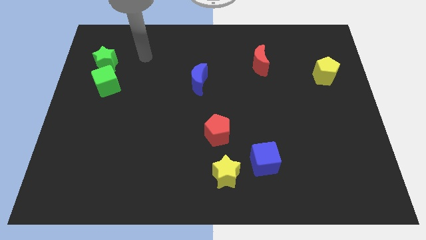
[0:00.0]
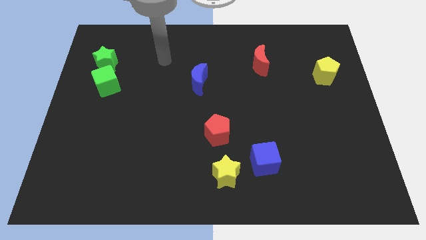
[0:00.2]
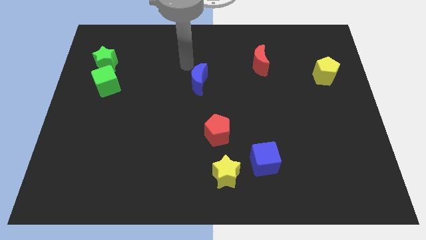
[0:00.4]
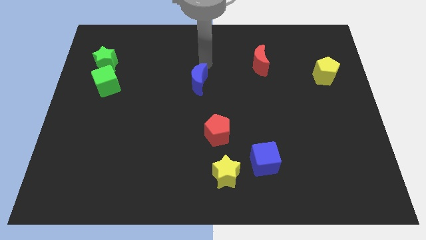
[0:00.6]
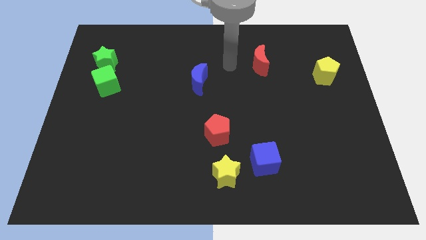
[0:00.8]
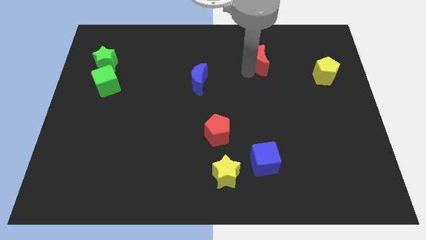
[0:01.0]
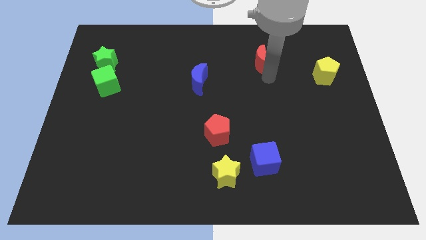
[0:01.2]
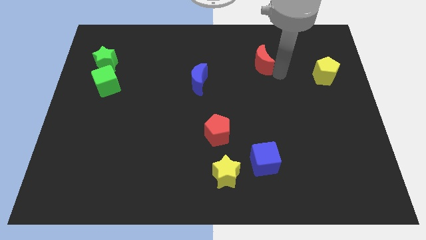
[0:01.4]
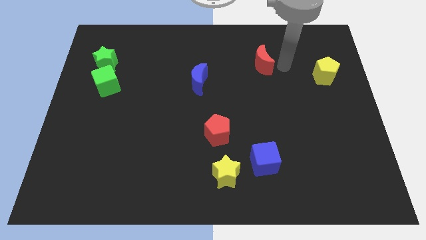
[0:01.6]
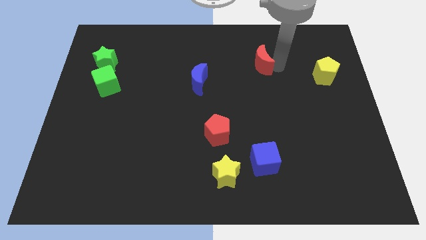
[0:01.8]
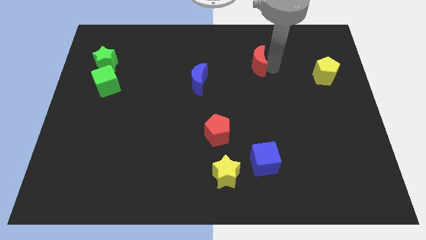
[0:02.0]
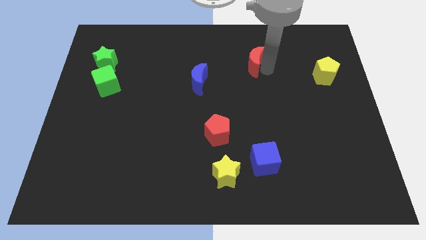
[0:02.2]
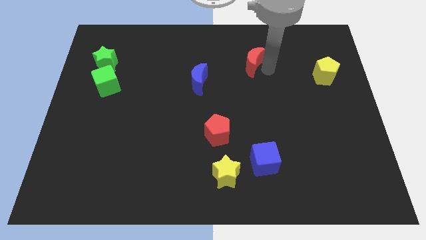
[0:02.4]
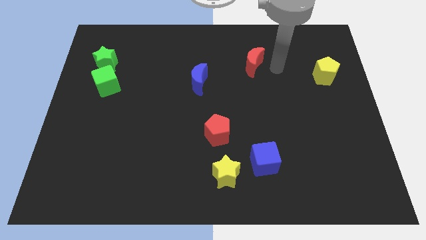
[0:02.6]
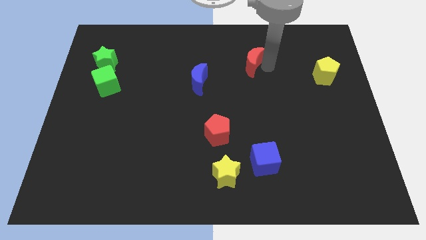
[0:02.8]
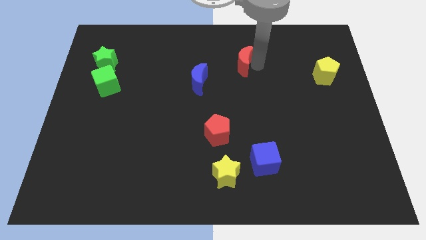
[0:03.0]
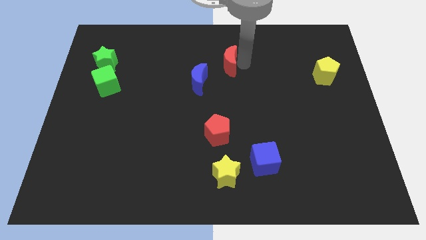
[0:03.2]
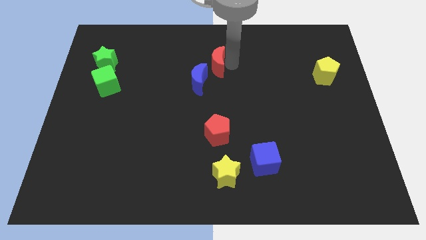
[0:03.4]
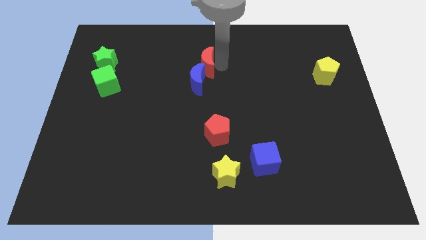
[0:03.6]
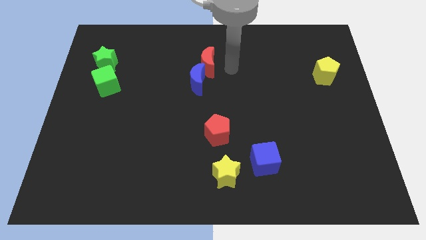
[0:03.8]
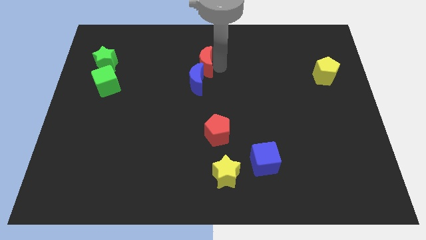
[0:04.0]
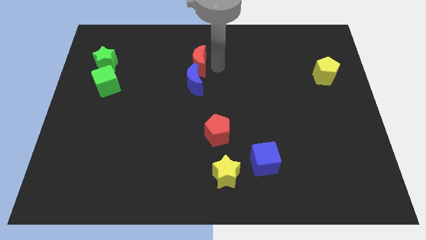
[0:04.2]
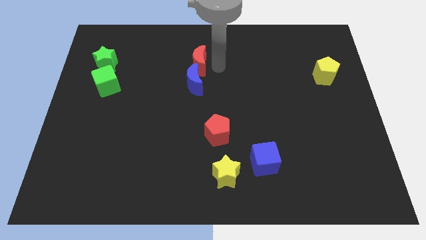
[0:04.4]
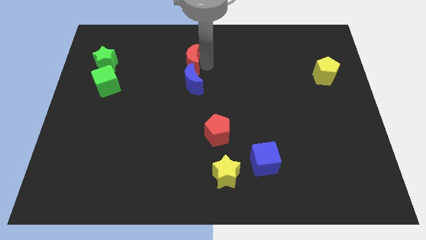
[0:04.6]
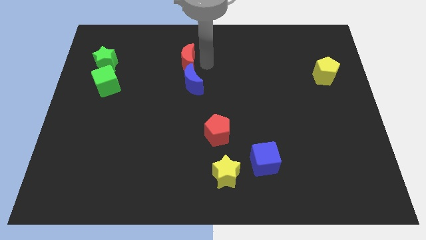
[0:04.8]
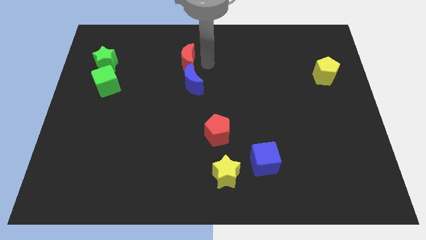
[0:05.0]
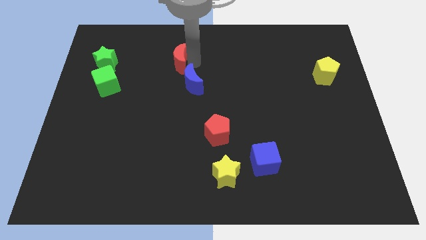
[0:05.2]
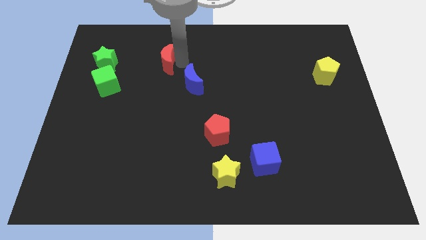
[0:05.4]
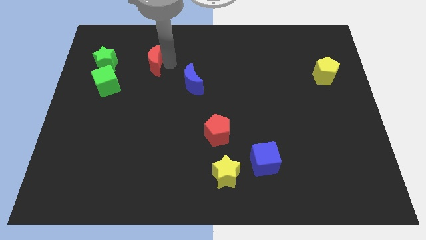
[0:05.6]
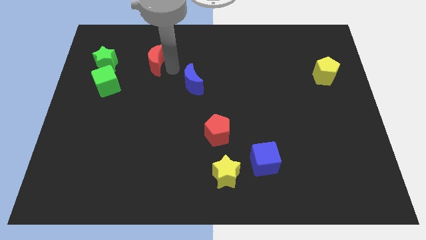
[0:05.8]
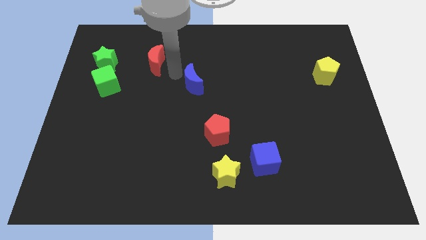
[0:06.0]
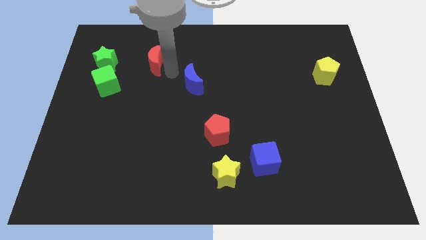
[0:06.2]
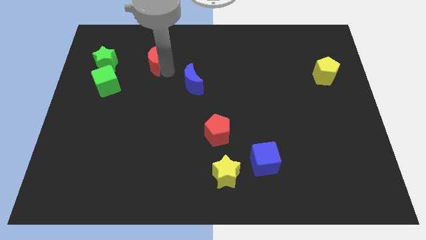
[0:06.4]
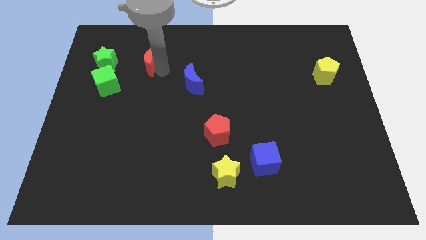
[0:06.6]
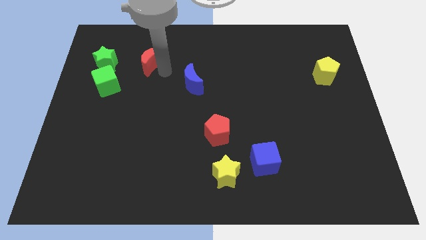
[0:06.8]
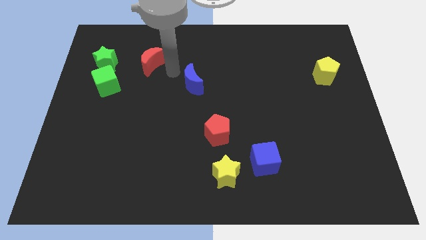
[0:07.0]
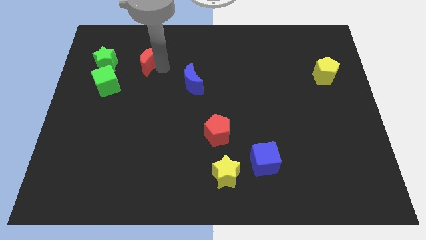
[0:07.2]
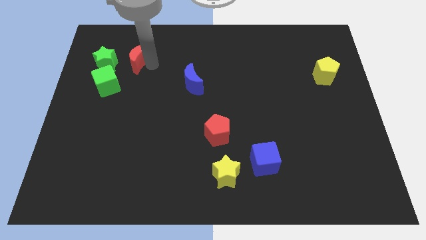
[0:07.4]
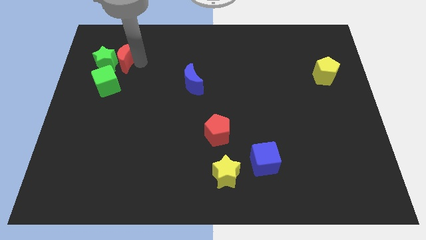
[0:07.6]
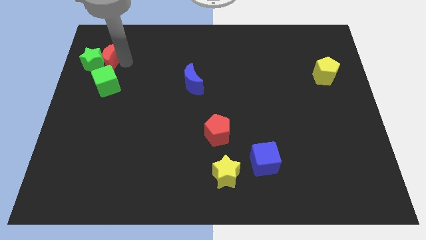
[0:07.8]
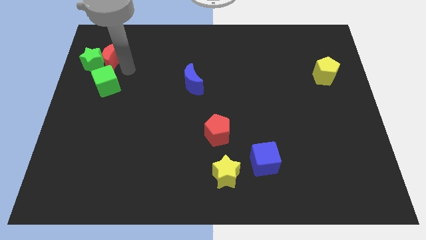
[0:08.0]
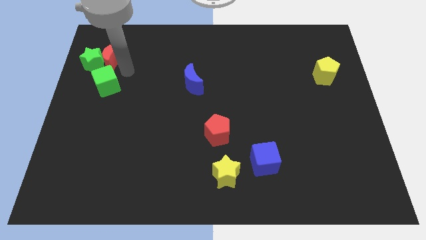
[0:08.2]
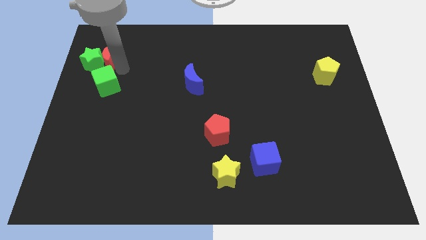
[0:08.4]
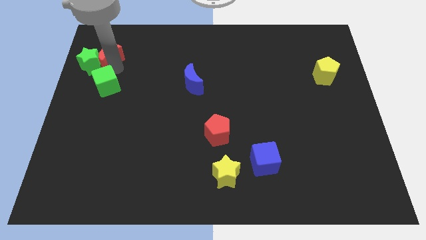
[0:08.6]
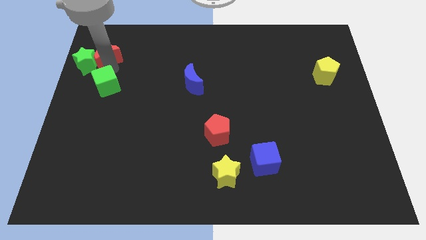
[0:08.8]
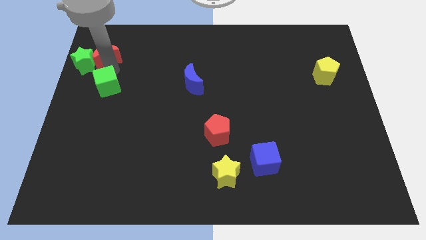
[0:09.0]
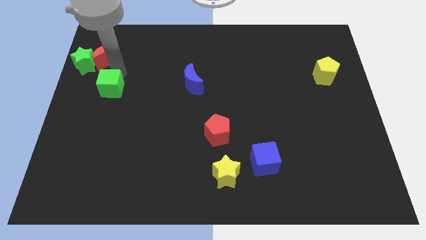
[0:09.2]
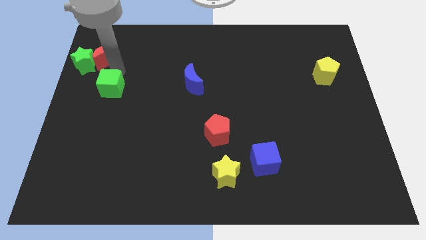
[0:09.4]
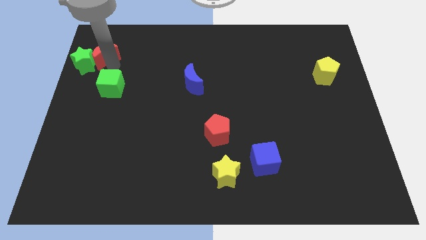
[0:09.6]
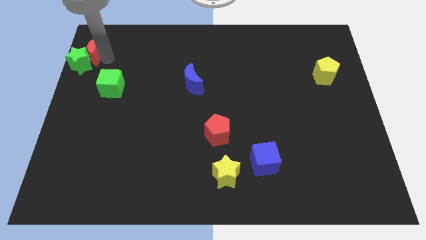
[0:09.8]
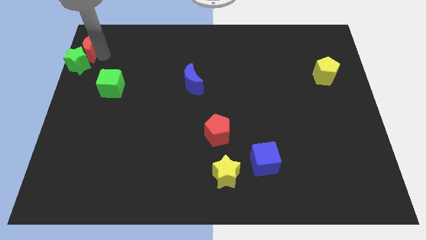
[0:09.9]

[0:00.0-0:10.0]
push the red moon to the top left

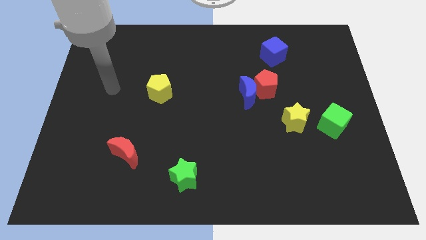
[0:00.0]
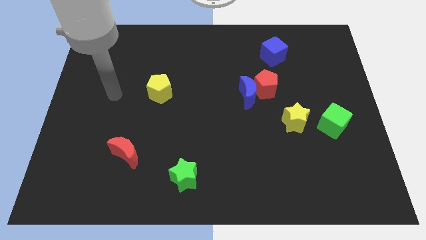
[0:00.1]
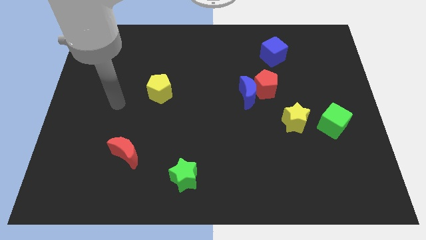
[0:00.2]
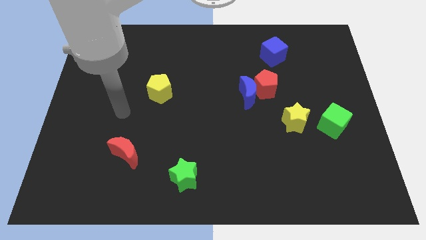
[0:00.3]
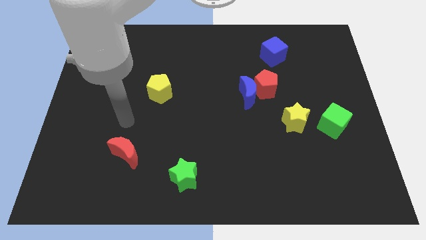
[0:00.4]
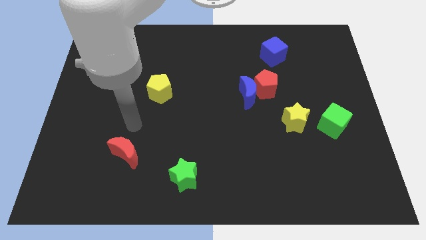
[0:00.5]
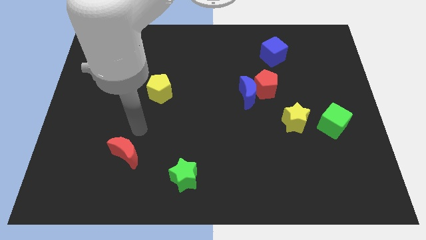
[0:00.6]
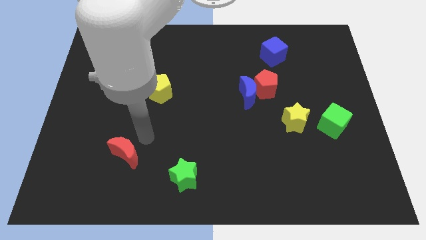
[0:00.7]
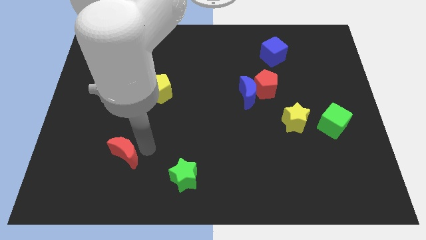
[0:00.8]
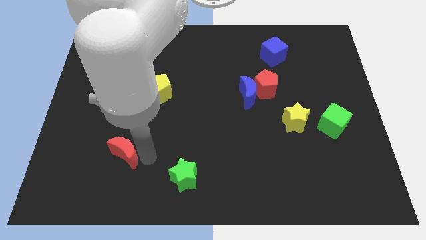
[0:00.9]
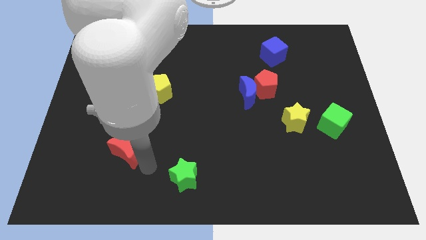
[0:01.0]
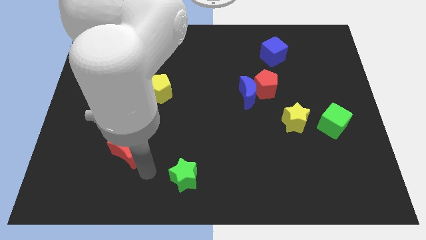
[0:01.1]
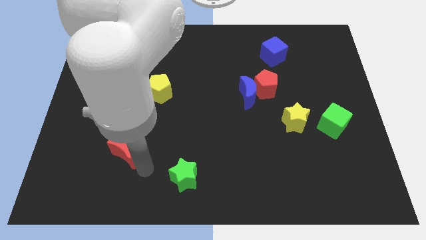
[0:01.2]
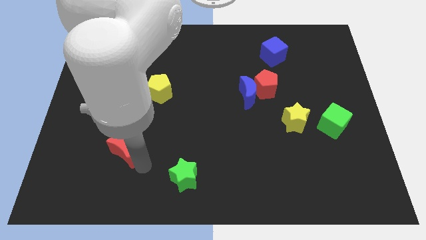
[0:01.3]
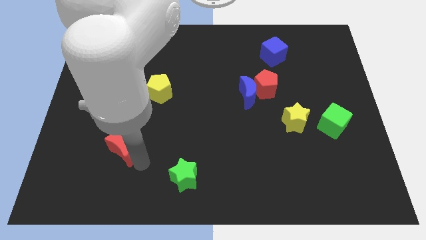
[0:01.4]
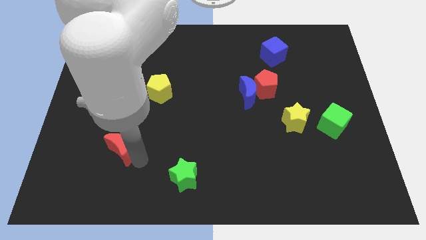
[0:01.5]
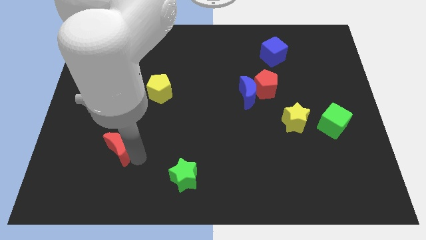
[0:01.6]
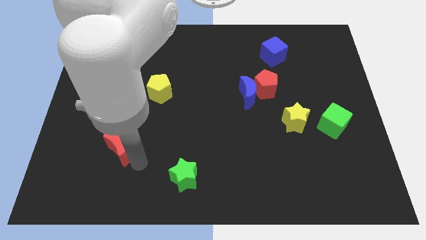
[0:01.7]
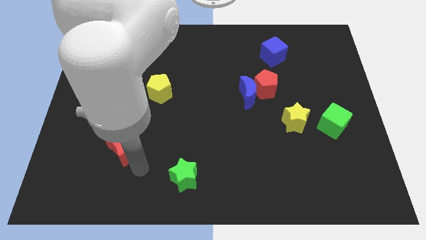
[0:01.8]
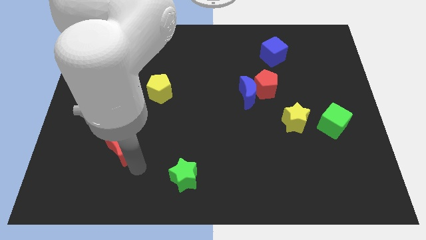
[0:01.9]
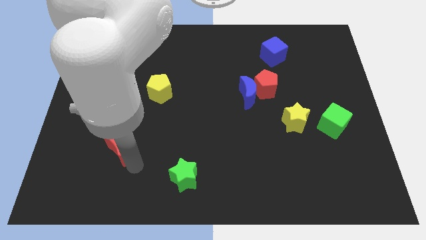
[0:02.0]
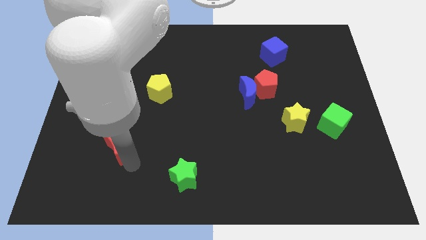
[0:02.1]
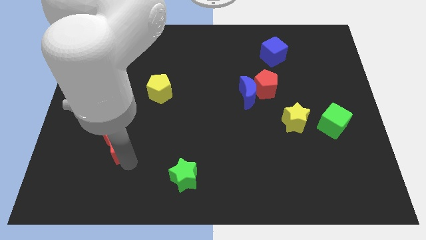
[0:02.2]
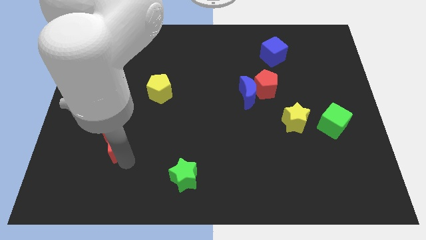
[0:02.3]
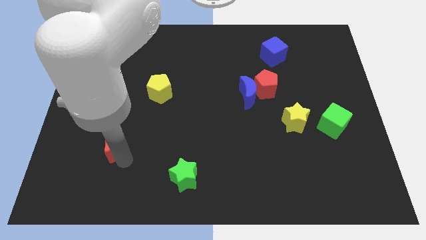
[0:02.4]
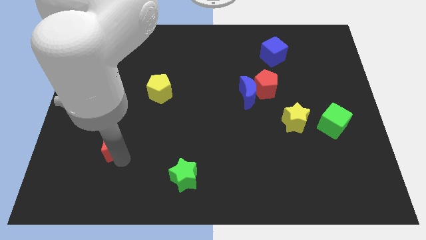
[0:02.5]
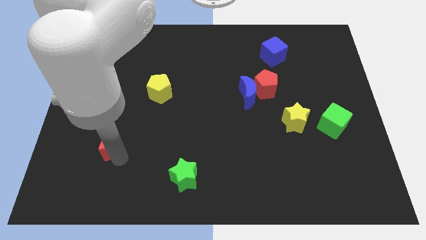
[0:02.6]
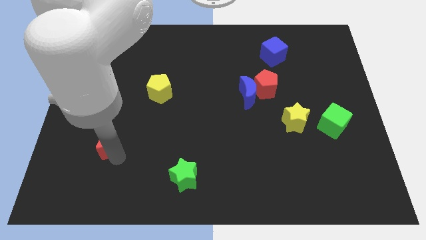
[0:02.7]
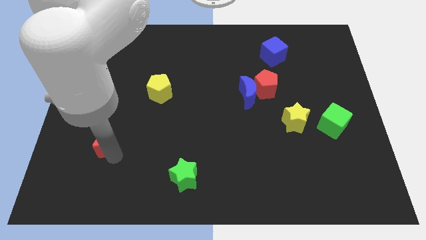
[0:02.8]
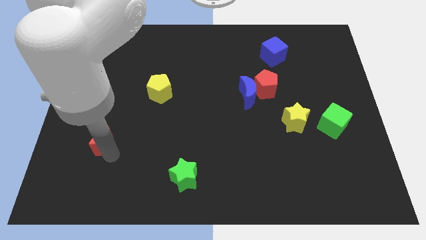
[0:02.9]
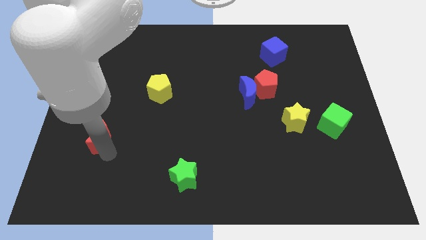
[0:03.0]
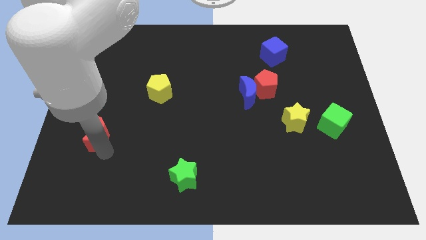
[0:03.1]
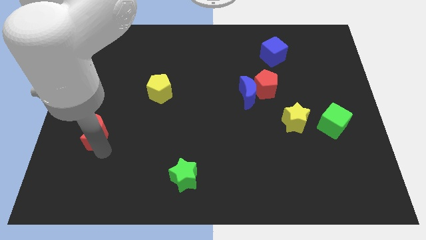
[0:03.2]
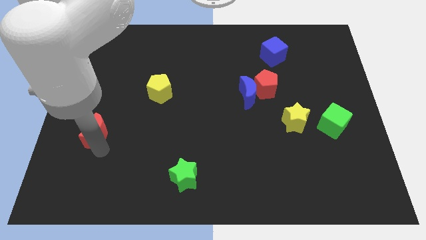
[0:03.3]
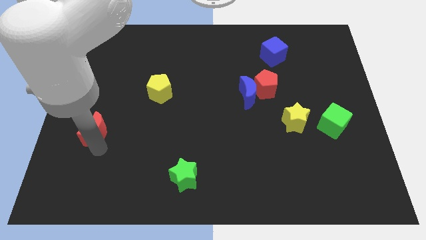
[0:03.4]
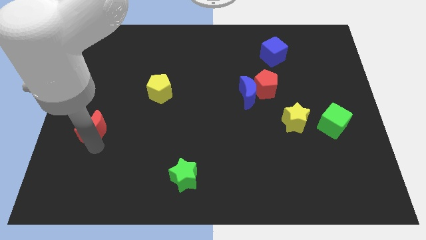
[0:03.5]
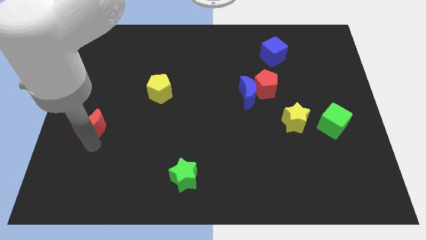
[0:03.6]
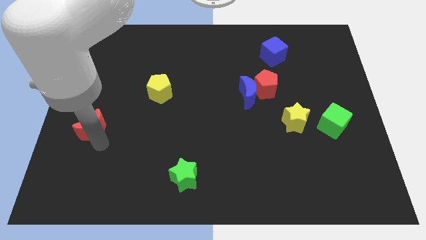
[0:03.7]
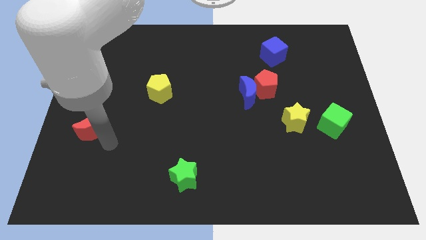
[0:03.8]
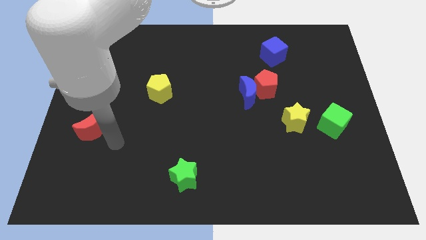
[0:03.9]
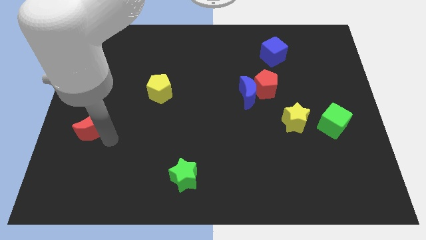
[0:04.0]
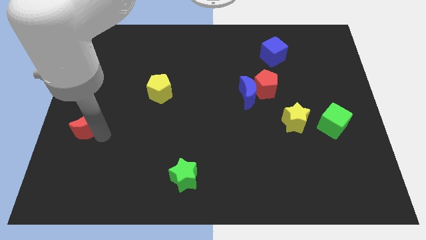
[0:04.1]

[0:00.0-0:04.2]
put the red moon to the center left
